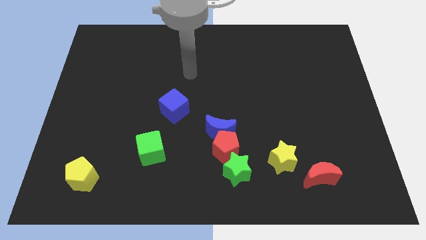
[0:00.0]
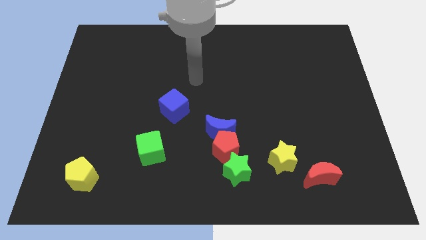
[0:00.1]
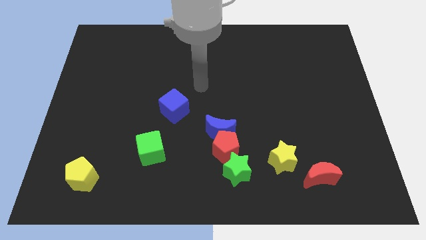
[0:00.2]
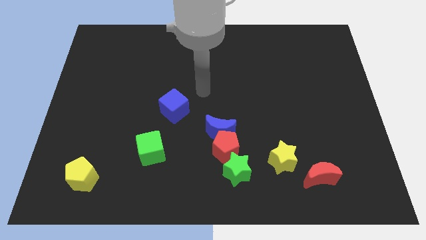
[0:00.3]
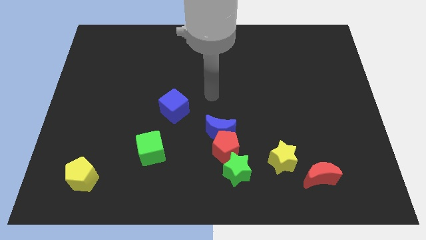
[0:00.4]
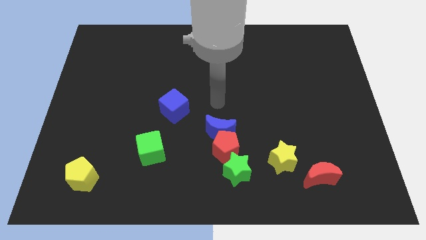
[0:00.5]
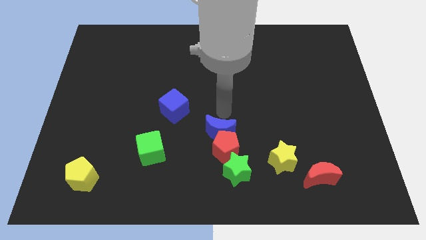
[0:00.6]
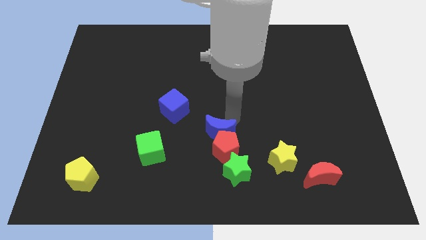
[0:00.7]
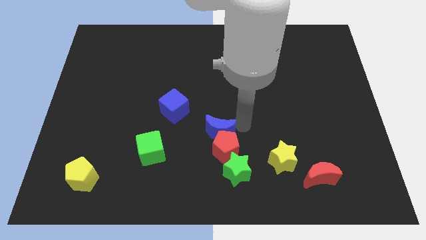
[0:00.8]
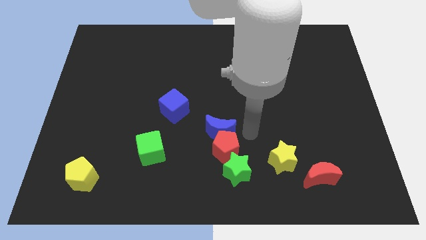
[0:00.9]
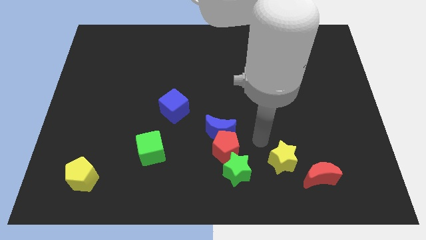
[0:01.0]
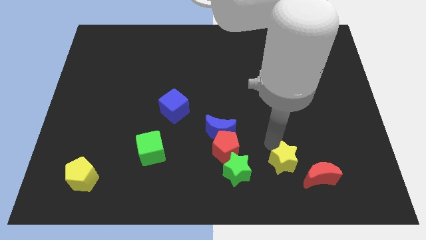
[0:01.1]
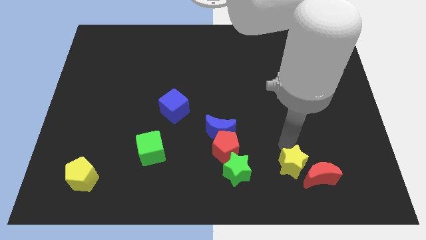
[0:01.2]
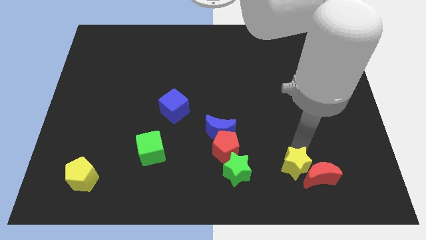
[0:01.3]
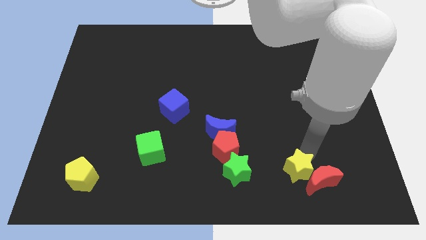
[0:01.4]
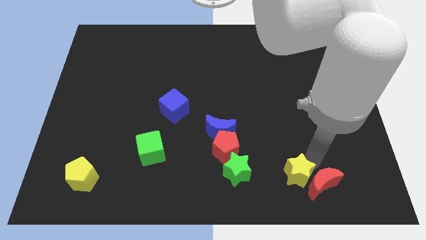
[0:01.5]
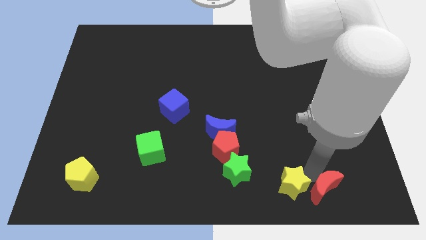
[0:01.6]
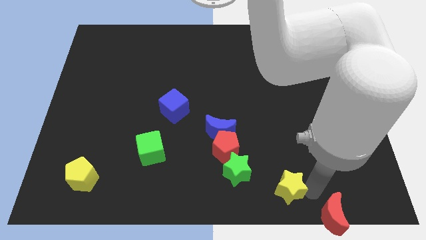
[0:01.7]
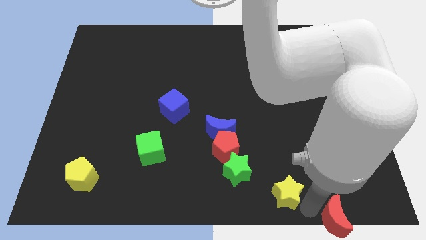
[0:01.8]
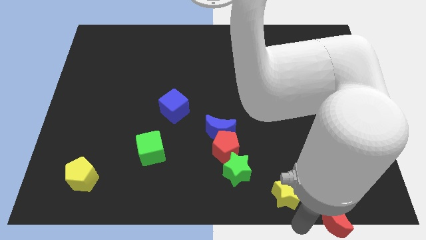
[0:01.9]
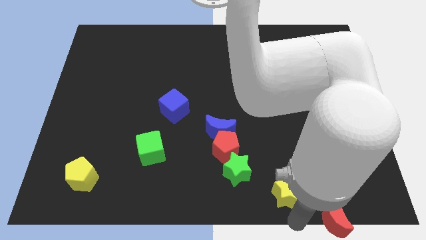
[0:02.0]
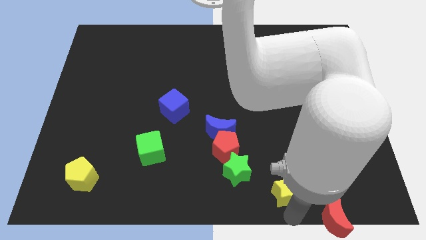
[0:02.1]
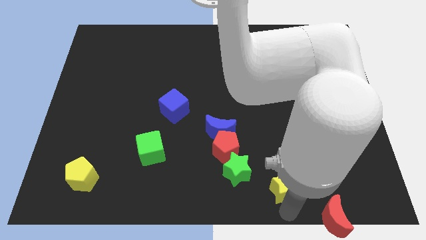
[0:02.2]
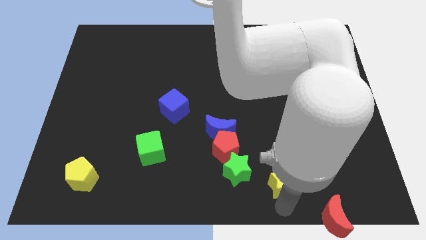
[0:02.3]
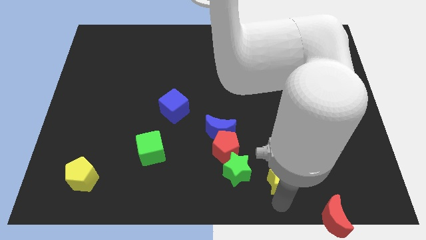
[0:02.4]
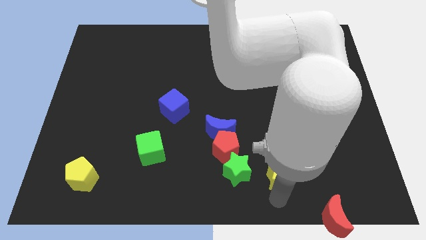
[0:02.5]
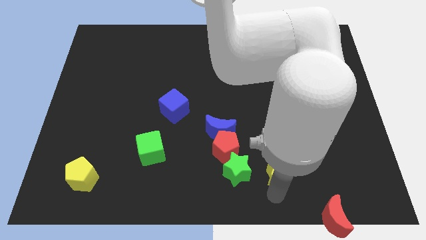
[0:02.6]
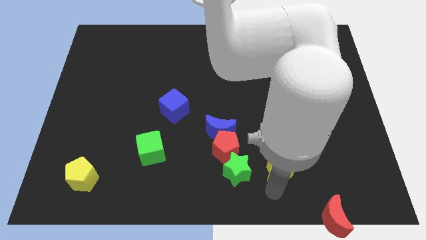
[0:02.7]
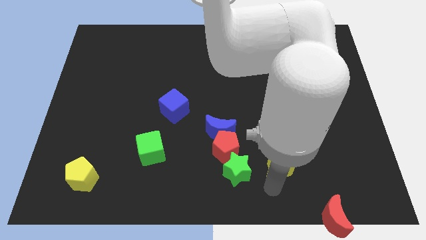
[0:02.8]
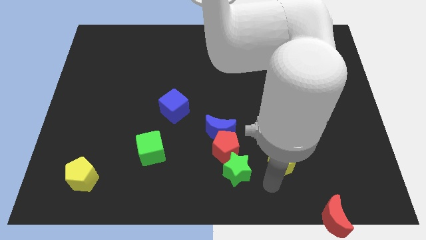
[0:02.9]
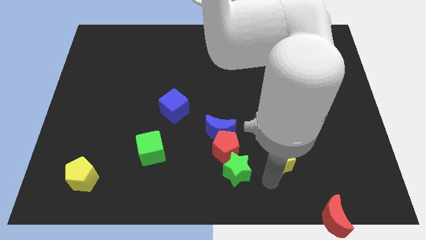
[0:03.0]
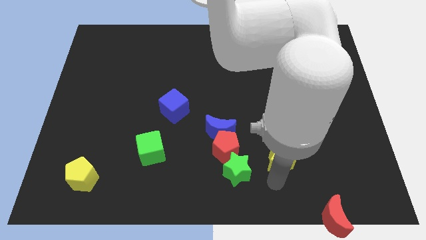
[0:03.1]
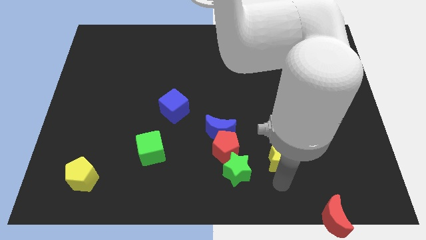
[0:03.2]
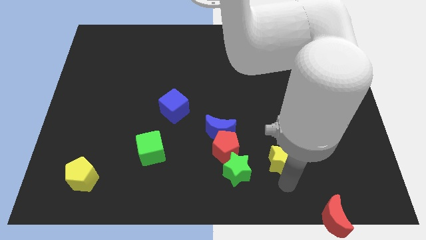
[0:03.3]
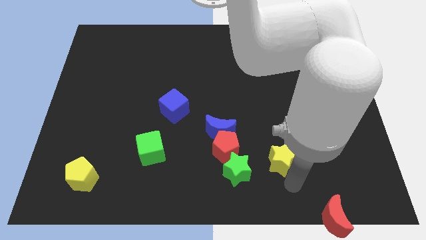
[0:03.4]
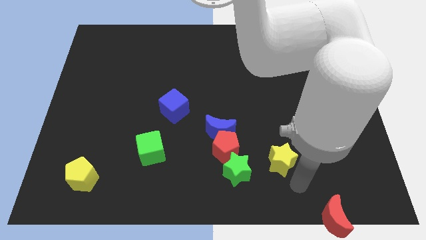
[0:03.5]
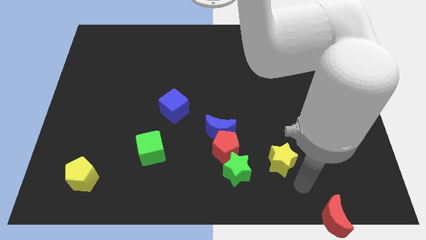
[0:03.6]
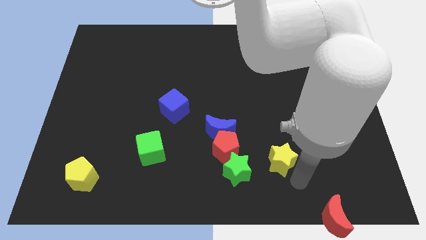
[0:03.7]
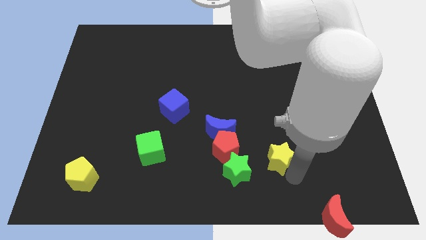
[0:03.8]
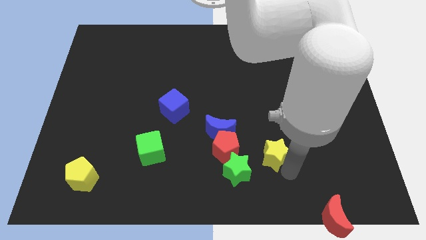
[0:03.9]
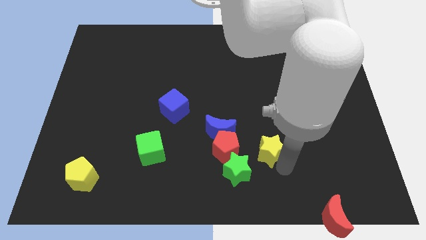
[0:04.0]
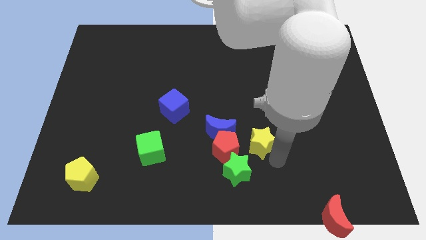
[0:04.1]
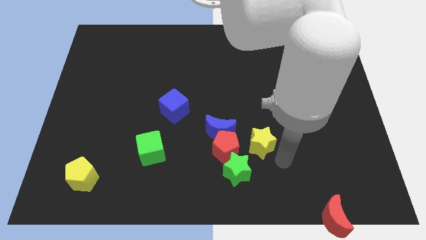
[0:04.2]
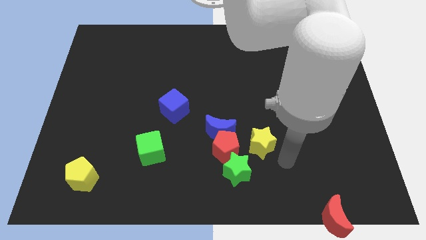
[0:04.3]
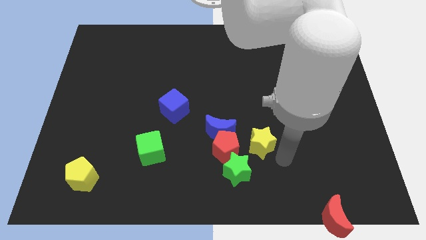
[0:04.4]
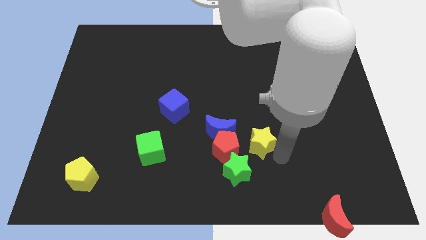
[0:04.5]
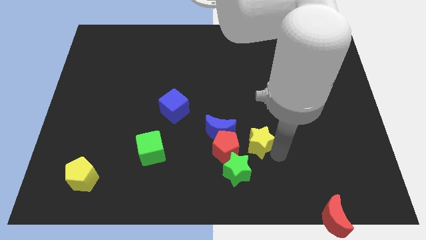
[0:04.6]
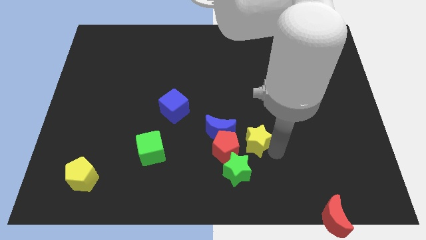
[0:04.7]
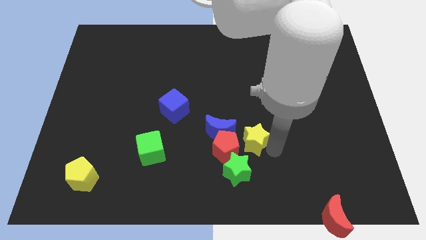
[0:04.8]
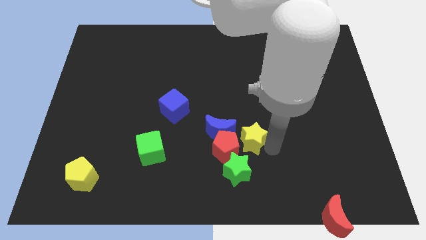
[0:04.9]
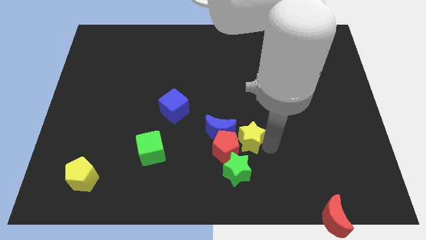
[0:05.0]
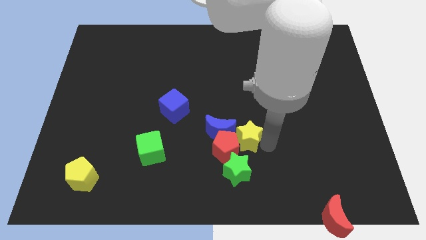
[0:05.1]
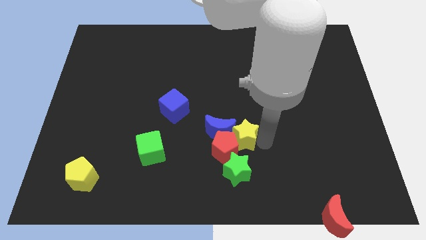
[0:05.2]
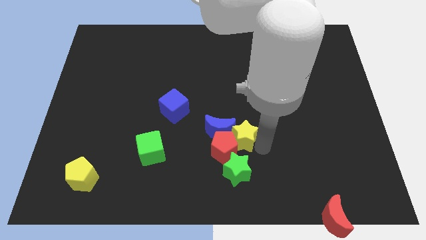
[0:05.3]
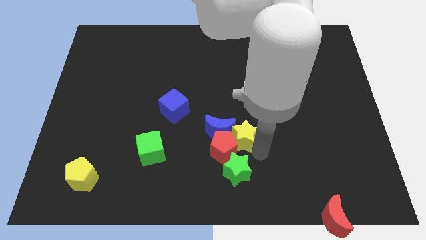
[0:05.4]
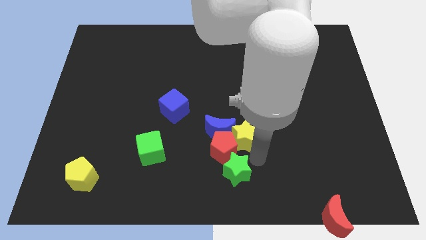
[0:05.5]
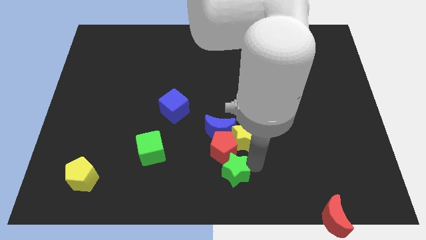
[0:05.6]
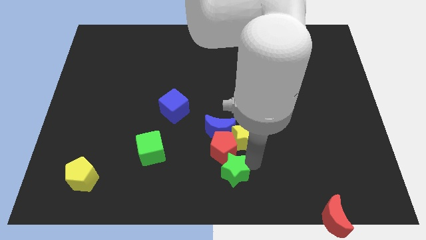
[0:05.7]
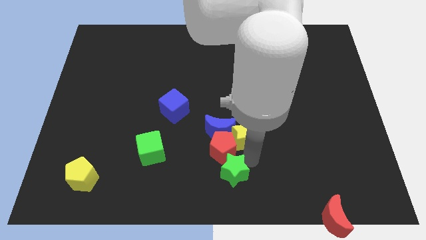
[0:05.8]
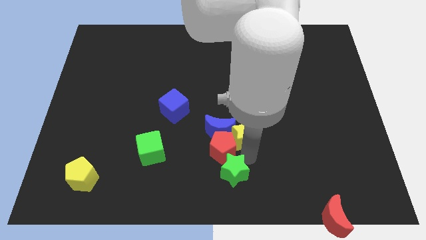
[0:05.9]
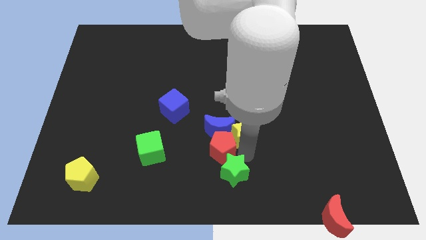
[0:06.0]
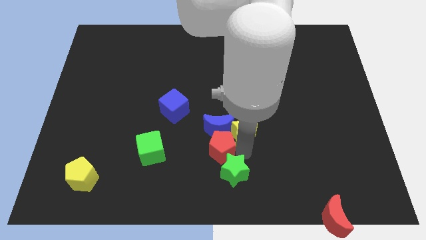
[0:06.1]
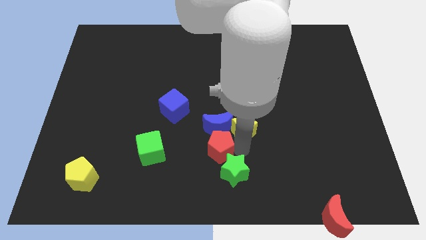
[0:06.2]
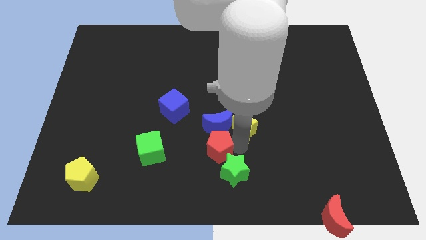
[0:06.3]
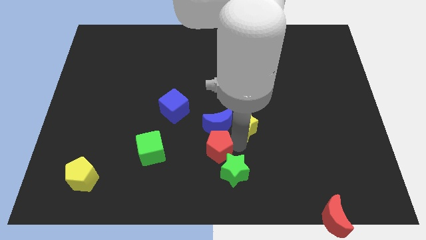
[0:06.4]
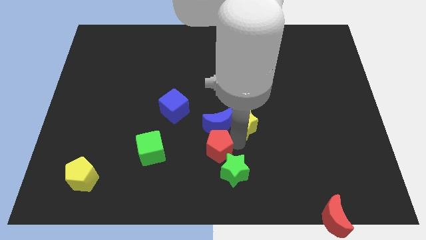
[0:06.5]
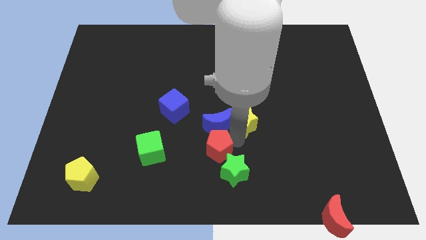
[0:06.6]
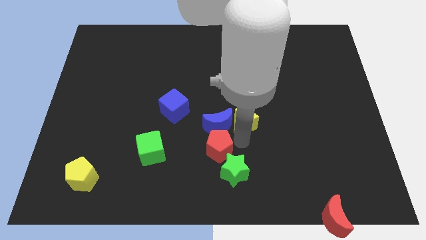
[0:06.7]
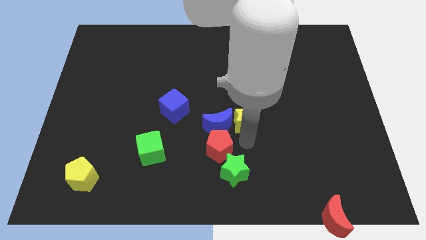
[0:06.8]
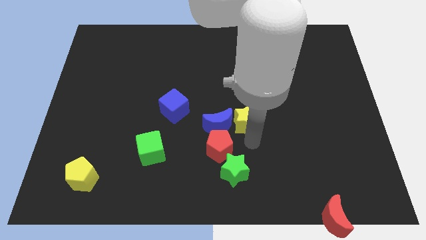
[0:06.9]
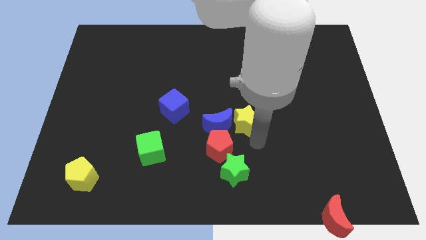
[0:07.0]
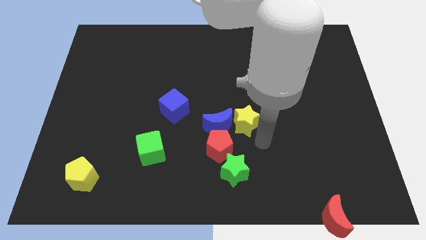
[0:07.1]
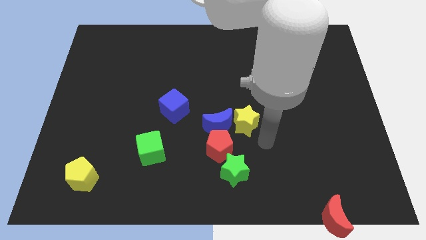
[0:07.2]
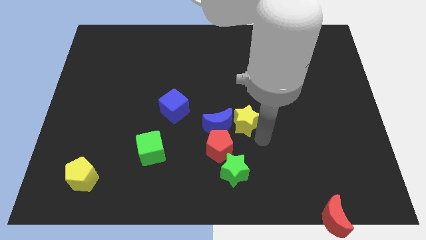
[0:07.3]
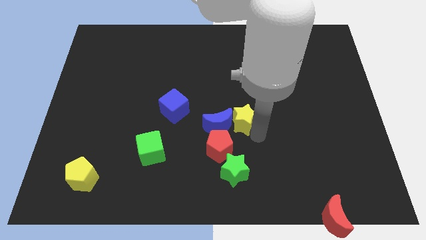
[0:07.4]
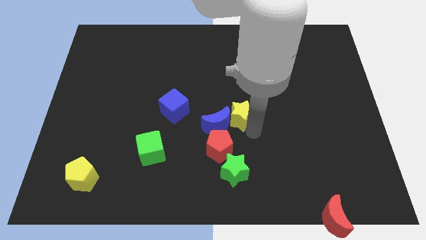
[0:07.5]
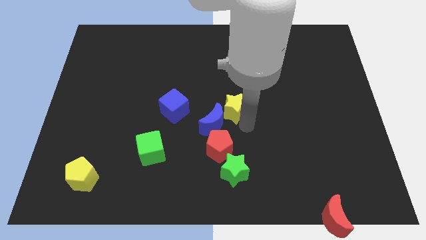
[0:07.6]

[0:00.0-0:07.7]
push the yellow star above the blue moon

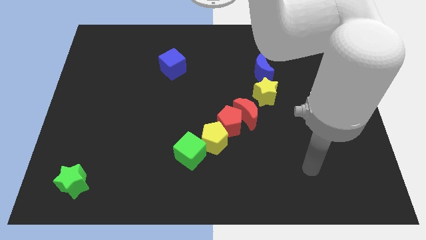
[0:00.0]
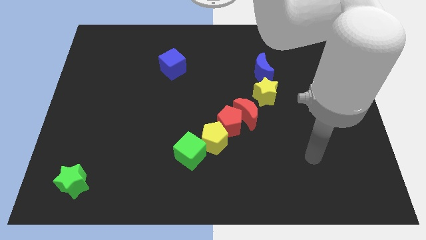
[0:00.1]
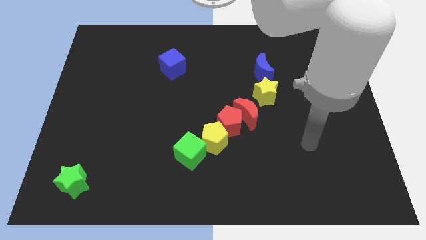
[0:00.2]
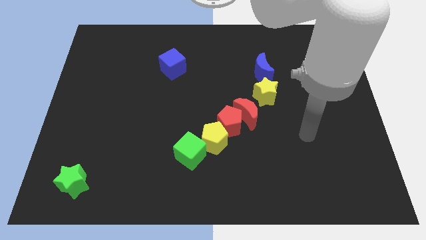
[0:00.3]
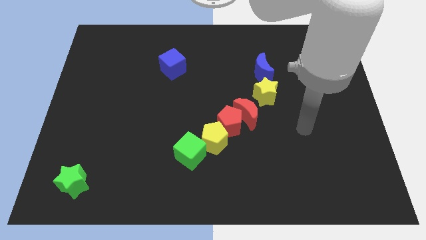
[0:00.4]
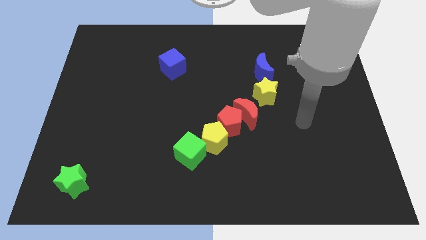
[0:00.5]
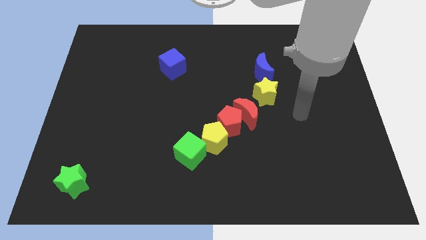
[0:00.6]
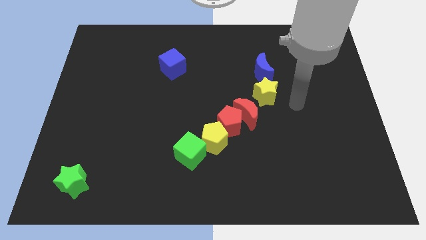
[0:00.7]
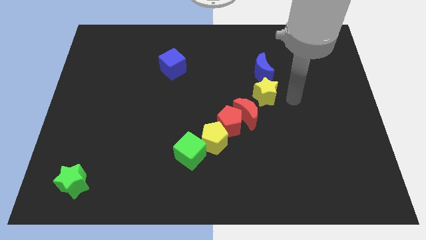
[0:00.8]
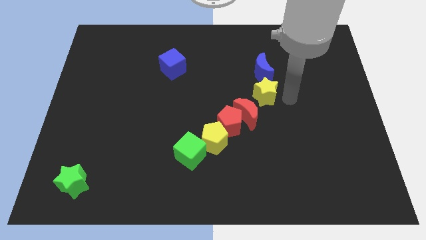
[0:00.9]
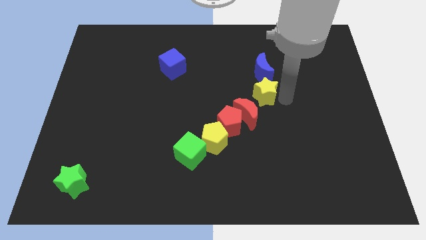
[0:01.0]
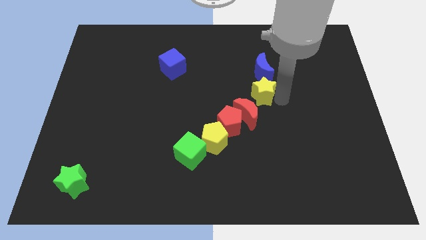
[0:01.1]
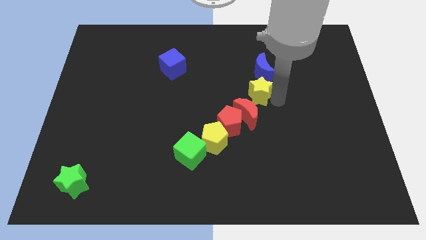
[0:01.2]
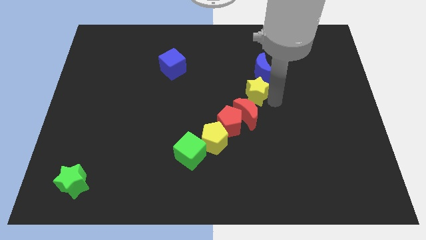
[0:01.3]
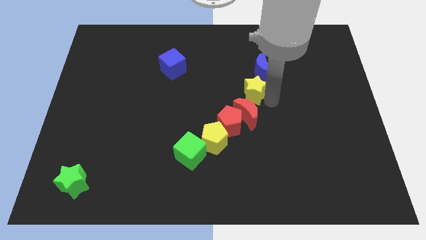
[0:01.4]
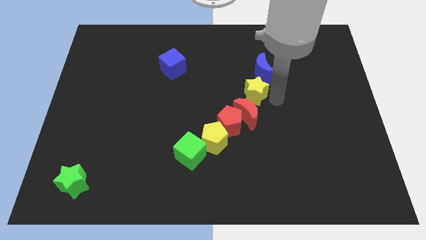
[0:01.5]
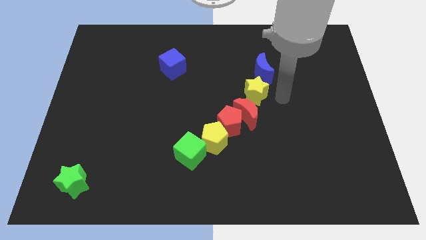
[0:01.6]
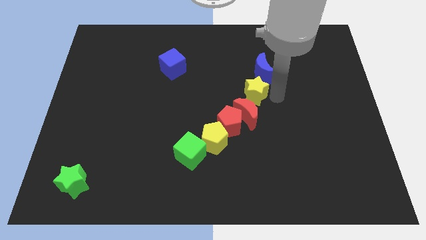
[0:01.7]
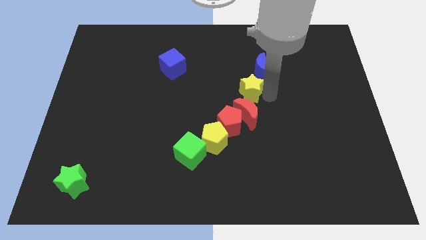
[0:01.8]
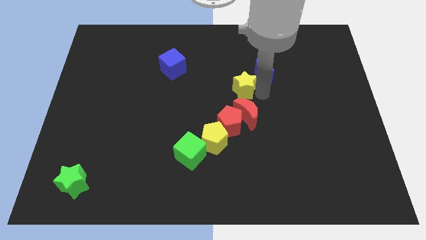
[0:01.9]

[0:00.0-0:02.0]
slide the yellow star above the red pentagon
